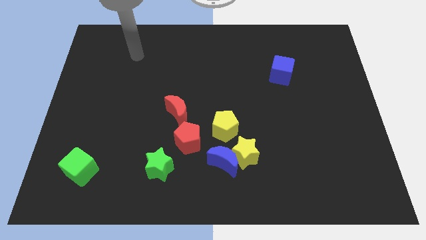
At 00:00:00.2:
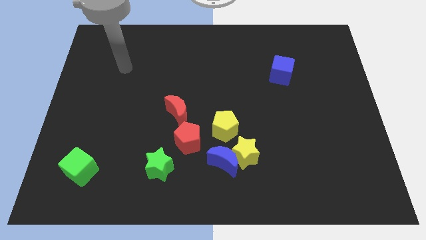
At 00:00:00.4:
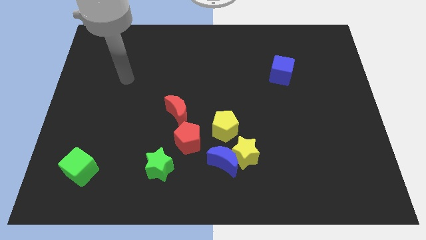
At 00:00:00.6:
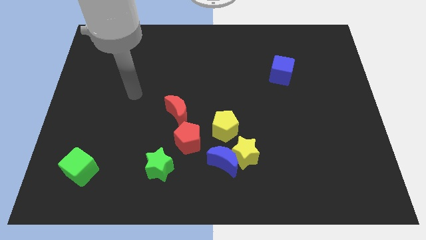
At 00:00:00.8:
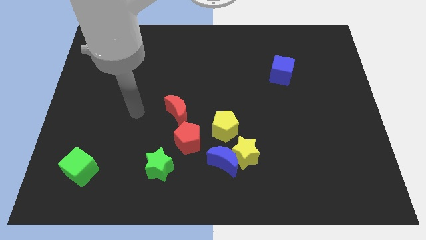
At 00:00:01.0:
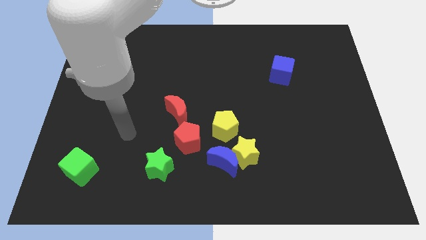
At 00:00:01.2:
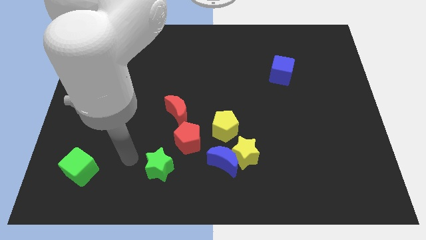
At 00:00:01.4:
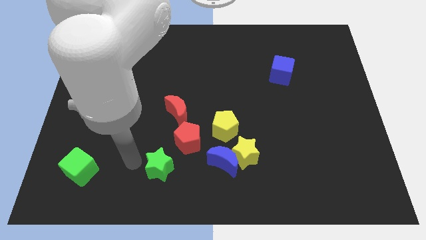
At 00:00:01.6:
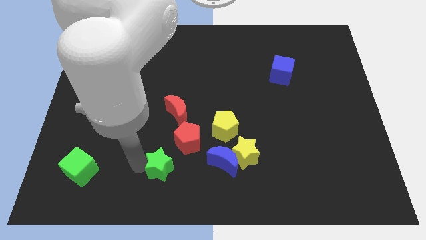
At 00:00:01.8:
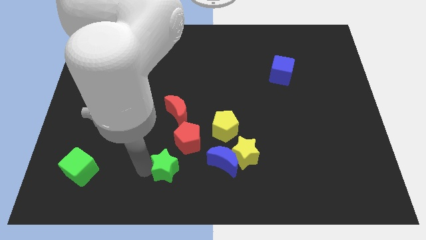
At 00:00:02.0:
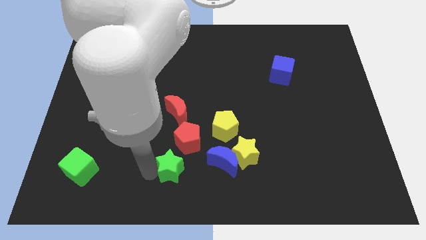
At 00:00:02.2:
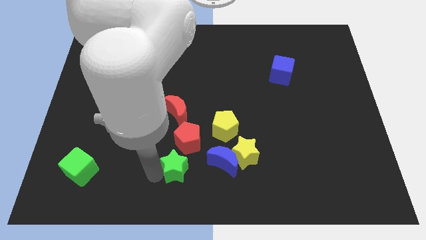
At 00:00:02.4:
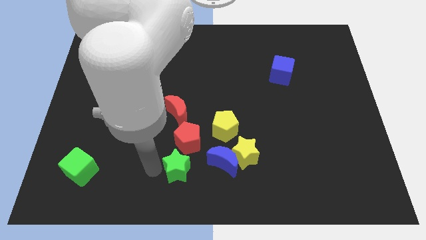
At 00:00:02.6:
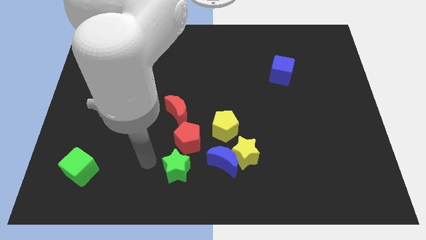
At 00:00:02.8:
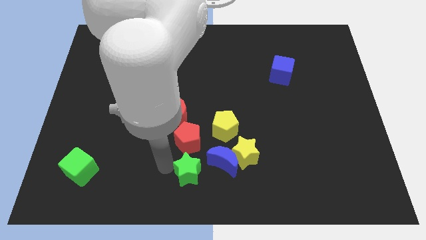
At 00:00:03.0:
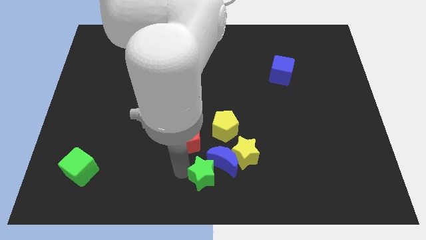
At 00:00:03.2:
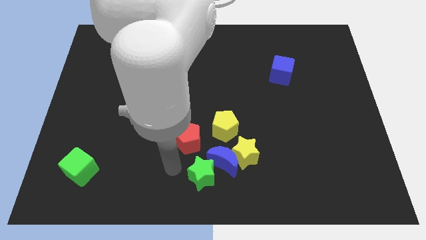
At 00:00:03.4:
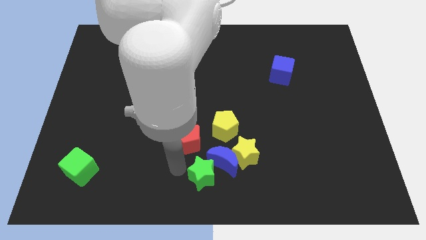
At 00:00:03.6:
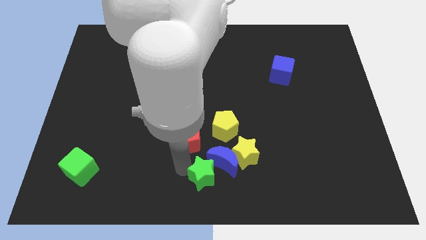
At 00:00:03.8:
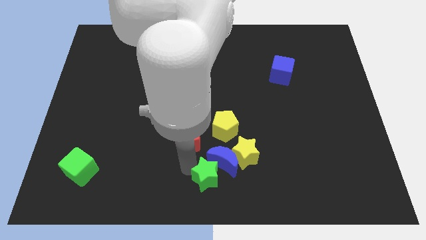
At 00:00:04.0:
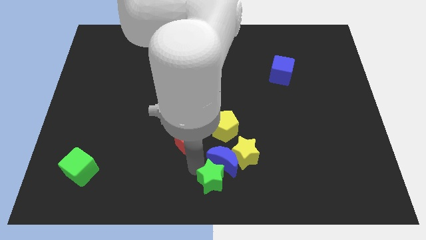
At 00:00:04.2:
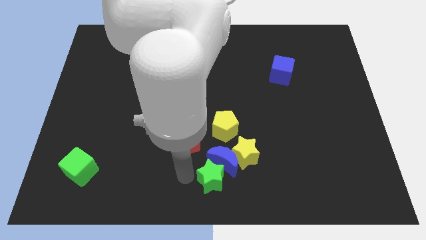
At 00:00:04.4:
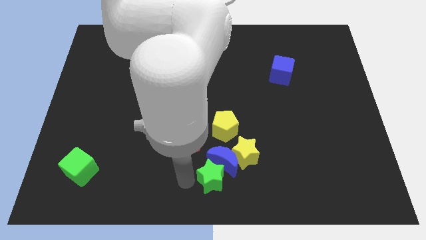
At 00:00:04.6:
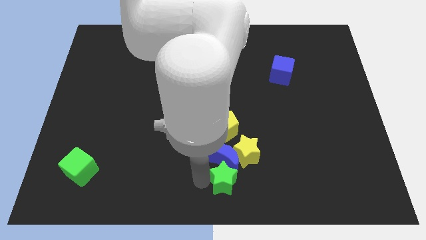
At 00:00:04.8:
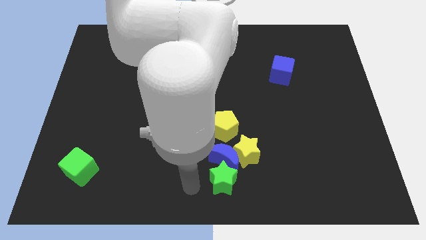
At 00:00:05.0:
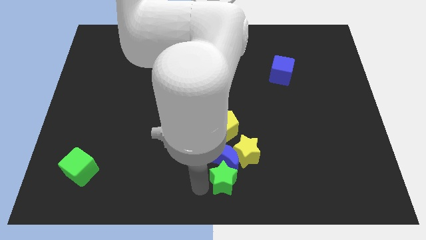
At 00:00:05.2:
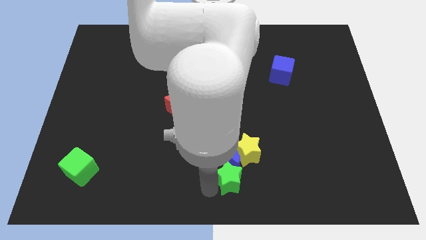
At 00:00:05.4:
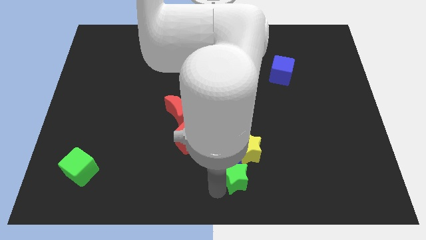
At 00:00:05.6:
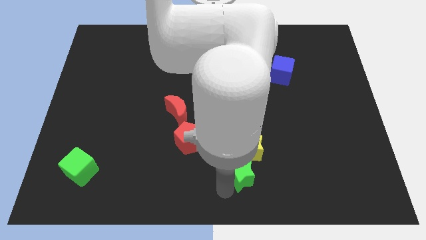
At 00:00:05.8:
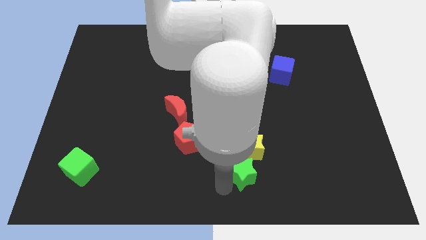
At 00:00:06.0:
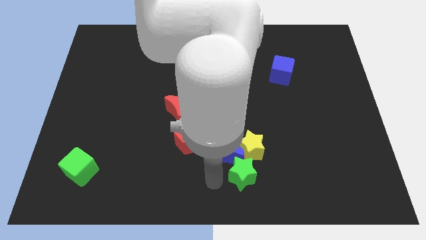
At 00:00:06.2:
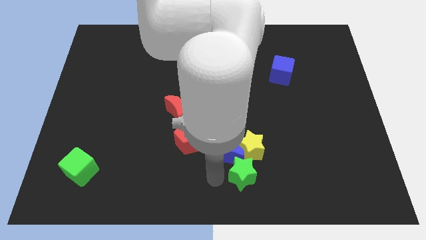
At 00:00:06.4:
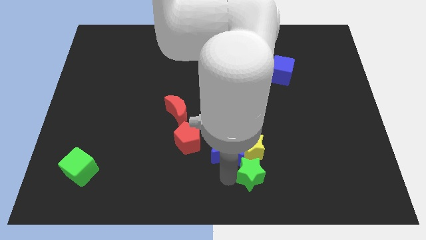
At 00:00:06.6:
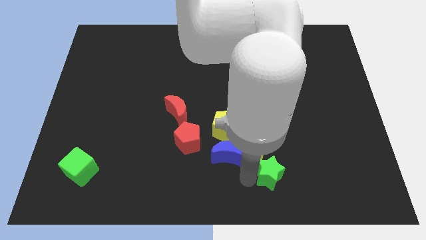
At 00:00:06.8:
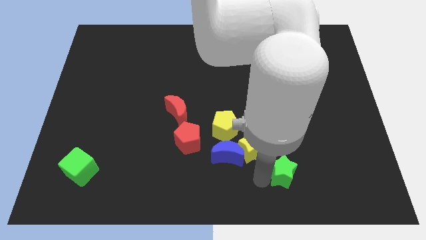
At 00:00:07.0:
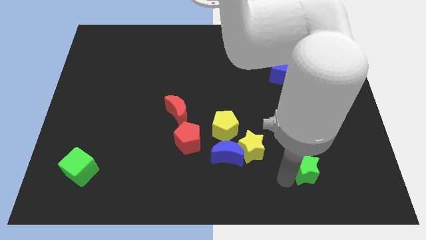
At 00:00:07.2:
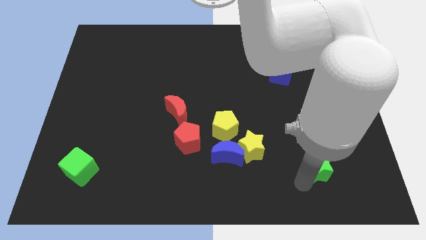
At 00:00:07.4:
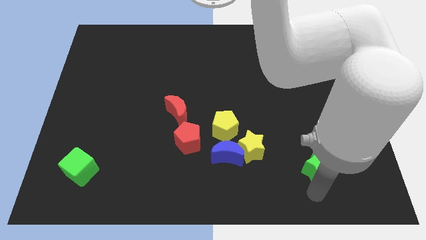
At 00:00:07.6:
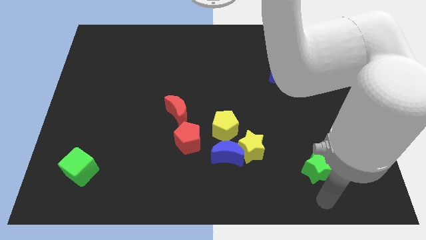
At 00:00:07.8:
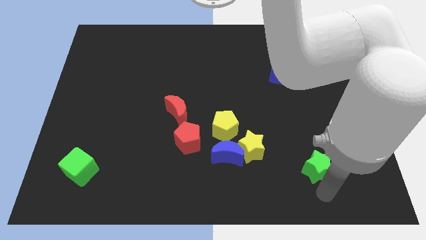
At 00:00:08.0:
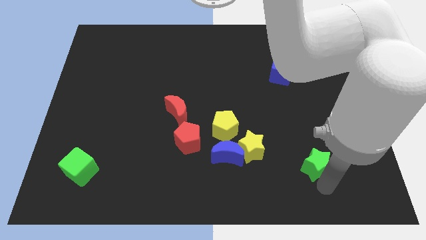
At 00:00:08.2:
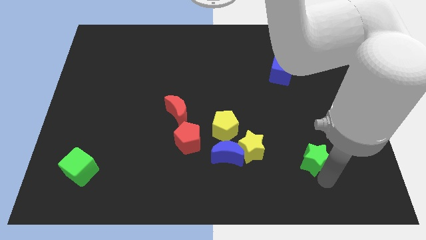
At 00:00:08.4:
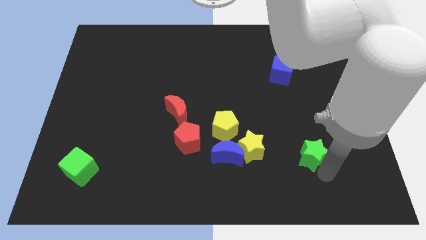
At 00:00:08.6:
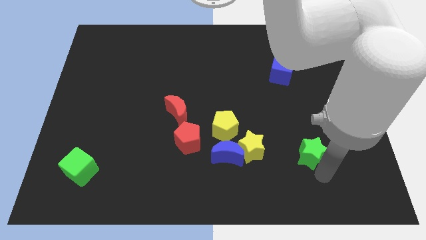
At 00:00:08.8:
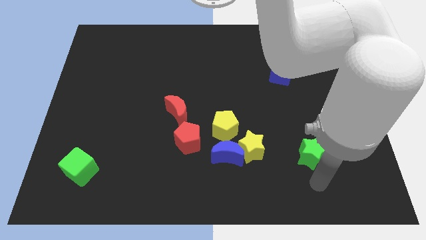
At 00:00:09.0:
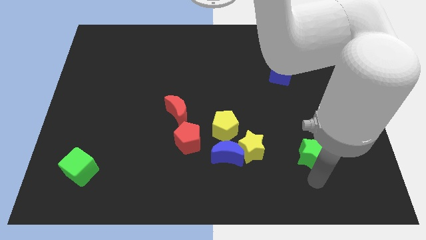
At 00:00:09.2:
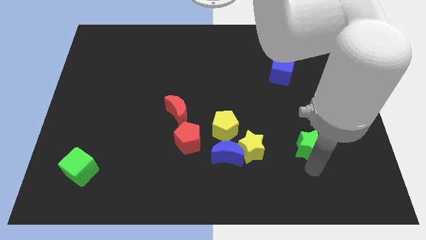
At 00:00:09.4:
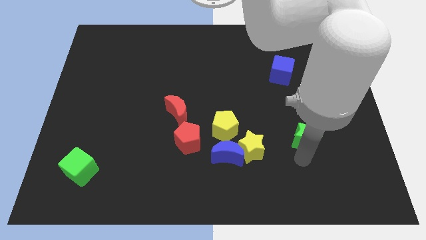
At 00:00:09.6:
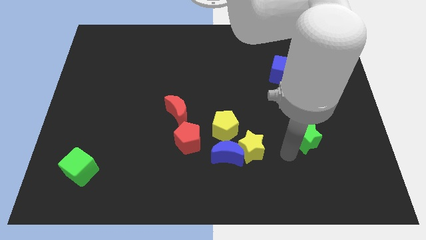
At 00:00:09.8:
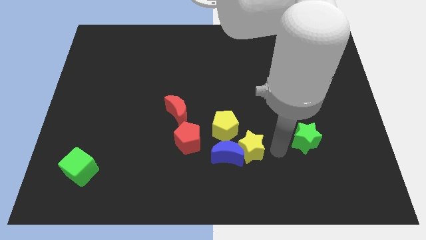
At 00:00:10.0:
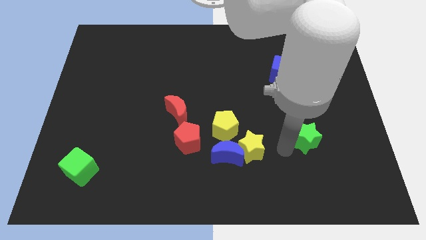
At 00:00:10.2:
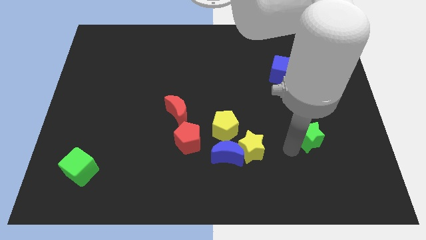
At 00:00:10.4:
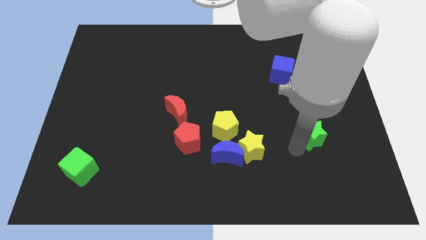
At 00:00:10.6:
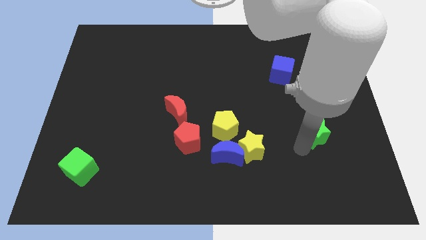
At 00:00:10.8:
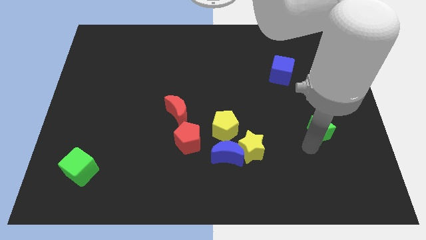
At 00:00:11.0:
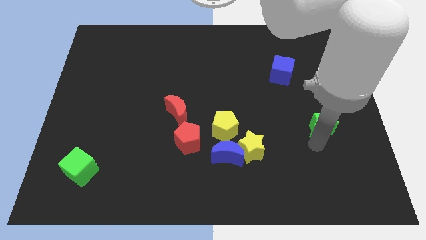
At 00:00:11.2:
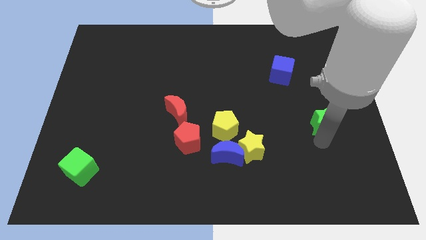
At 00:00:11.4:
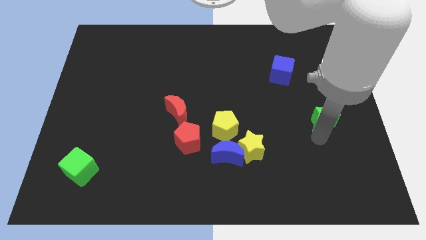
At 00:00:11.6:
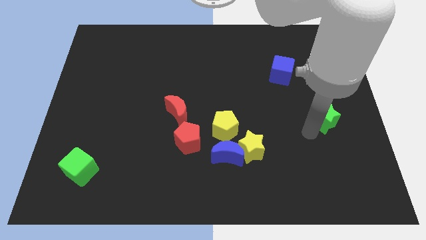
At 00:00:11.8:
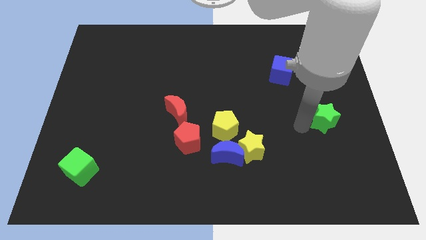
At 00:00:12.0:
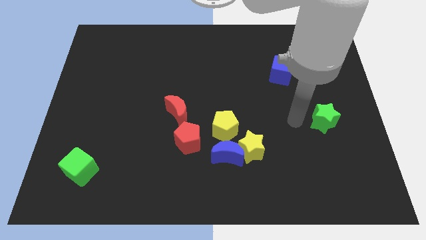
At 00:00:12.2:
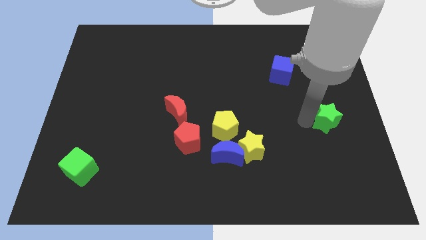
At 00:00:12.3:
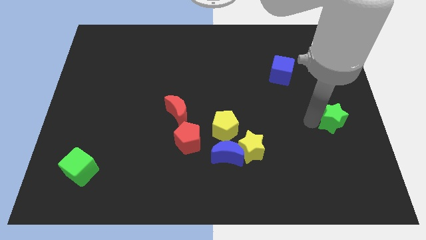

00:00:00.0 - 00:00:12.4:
move the green star to the center right
